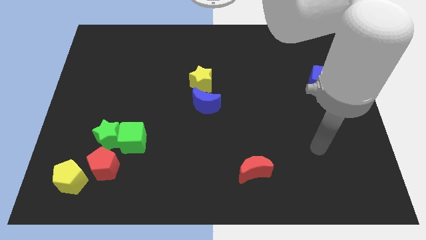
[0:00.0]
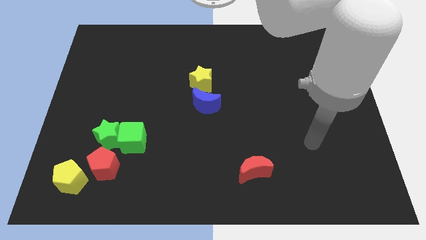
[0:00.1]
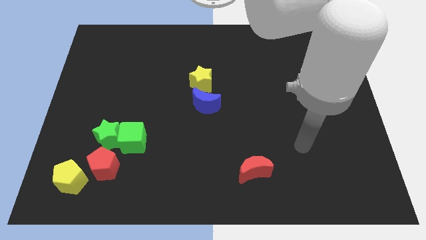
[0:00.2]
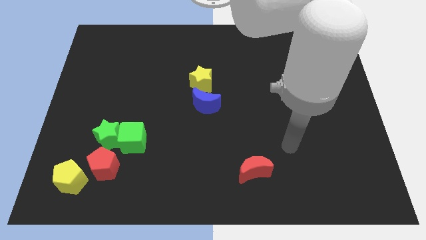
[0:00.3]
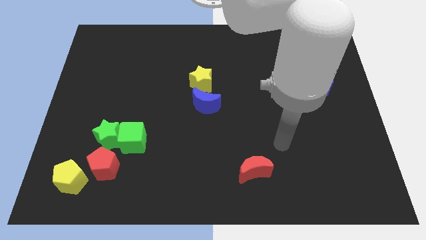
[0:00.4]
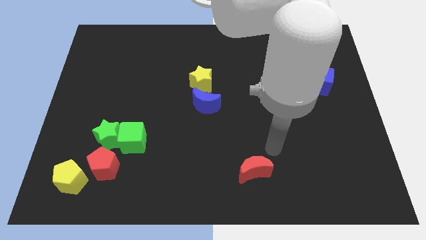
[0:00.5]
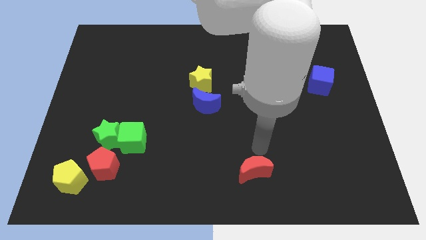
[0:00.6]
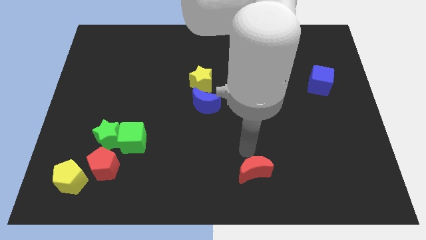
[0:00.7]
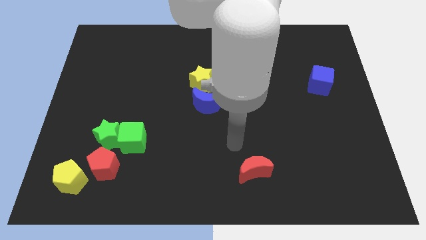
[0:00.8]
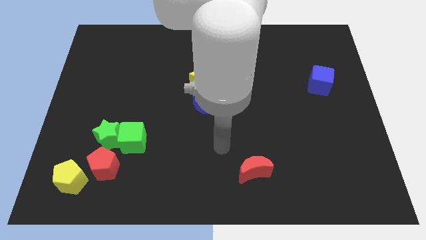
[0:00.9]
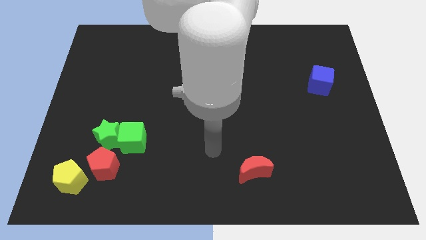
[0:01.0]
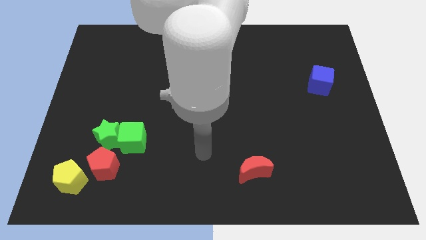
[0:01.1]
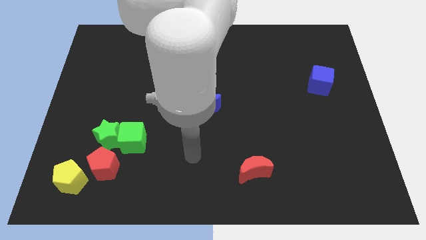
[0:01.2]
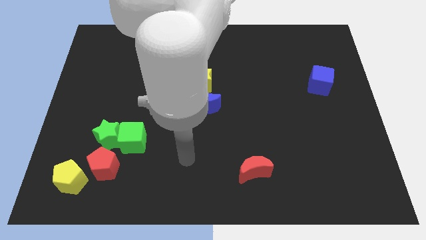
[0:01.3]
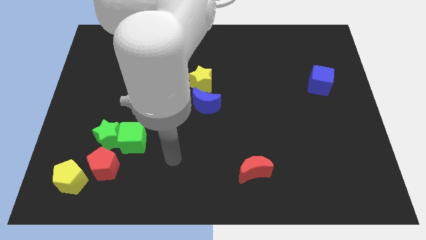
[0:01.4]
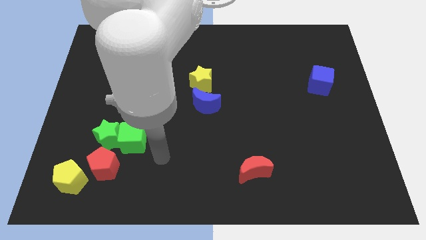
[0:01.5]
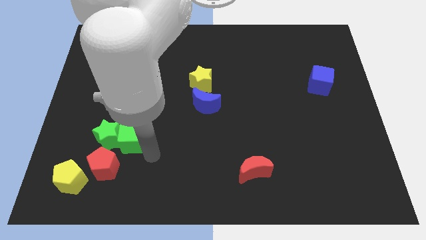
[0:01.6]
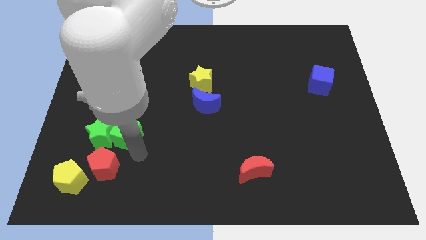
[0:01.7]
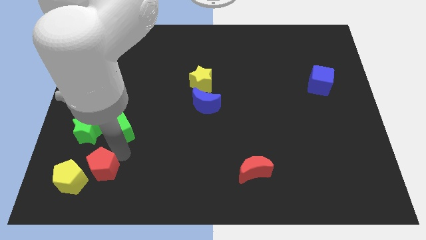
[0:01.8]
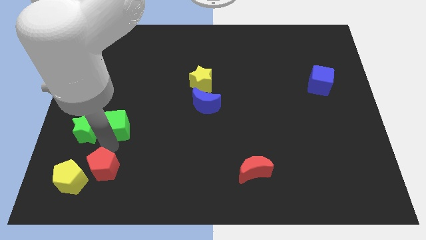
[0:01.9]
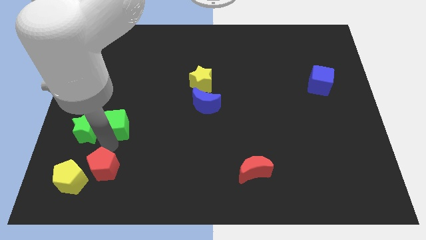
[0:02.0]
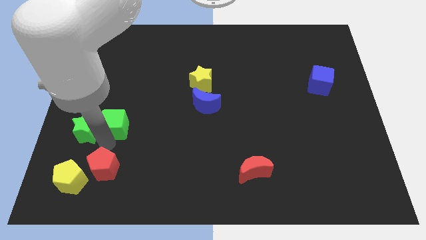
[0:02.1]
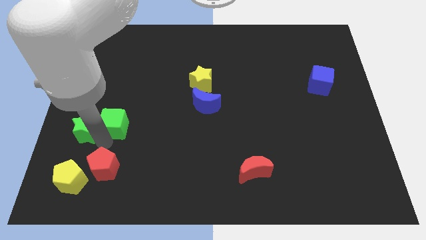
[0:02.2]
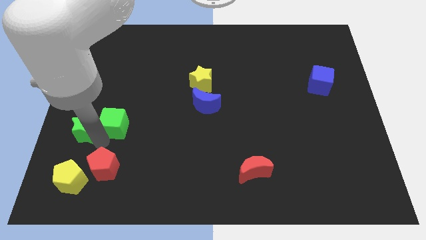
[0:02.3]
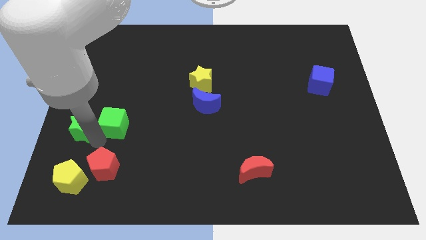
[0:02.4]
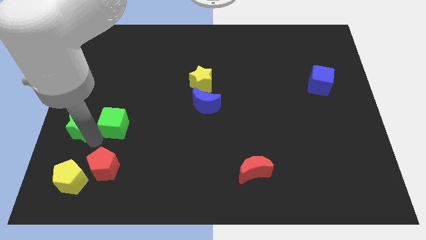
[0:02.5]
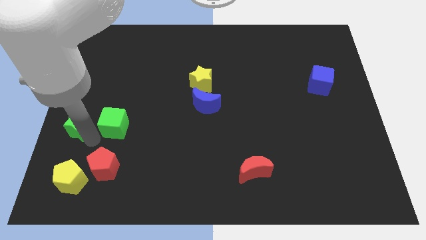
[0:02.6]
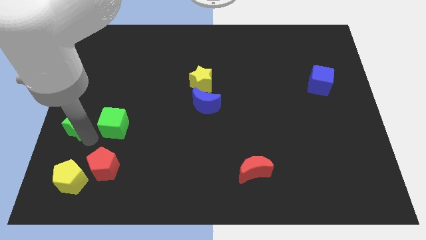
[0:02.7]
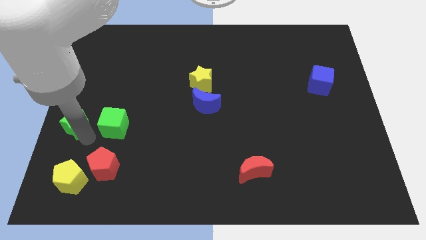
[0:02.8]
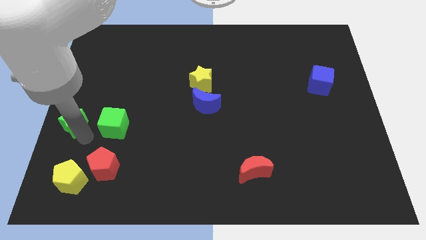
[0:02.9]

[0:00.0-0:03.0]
pull the green star apart from the green cube and red pentagon

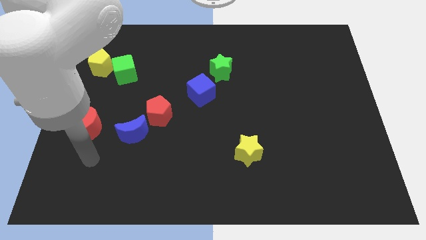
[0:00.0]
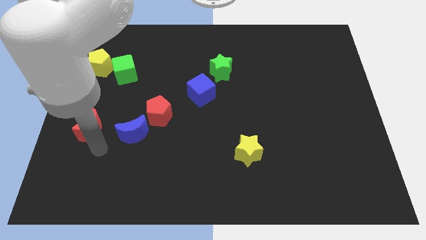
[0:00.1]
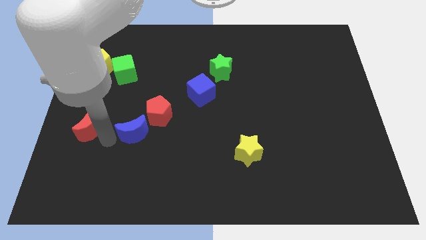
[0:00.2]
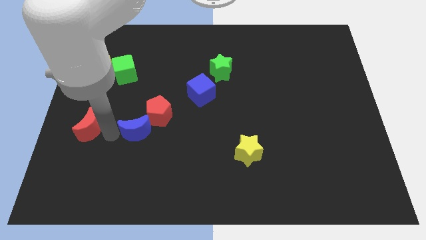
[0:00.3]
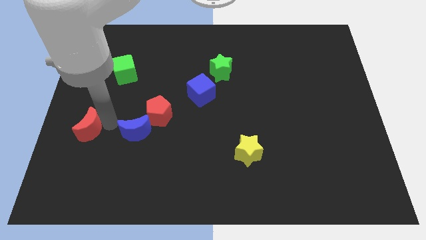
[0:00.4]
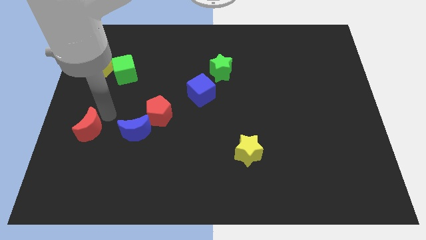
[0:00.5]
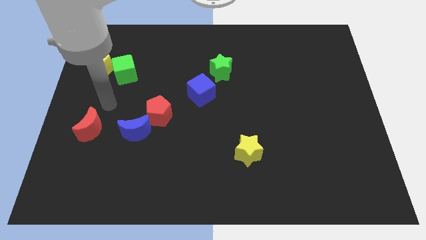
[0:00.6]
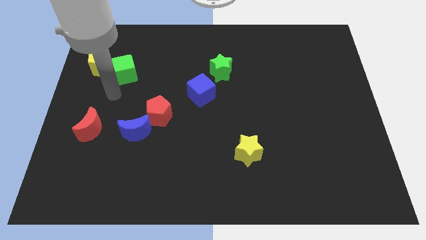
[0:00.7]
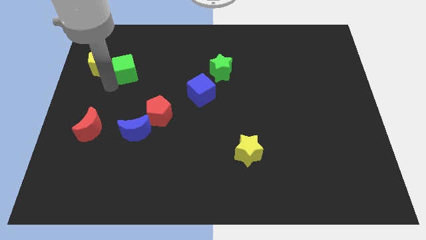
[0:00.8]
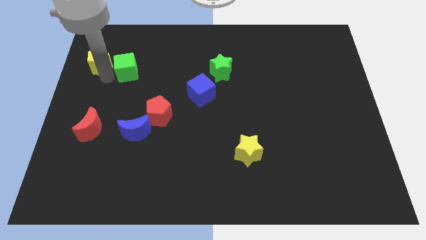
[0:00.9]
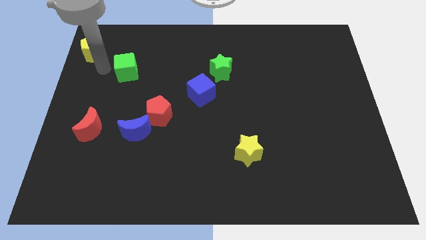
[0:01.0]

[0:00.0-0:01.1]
separate the green cube from the yellow pentagon

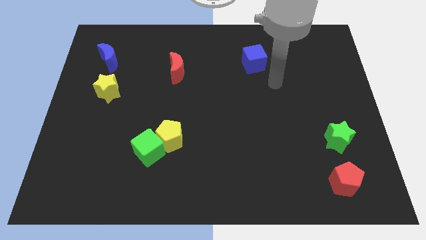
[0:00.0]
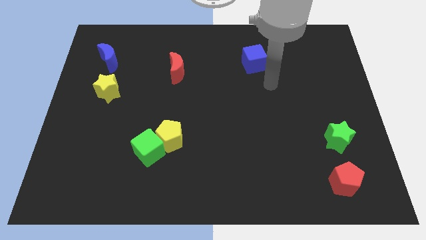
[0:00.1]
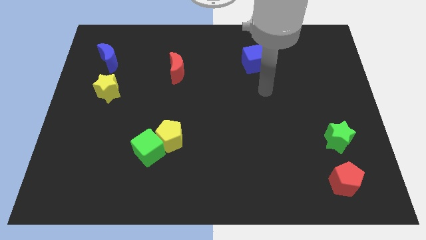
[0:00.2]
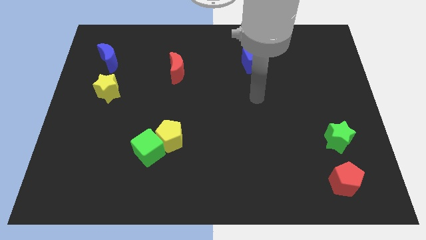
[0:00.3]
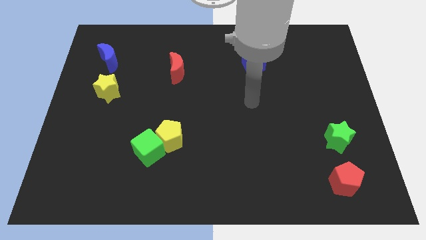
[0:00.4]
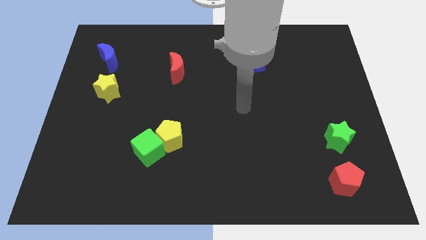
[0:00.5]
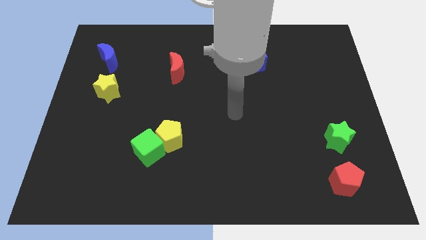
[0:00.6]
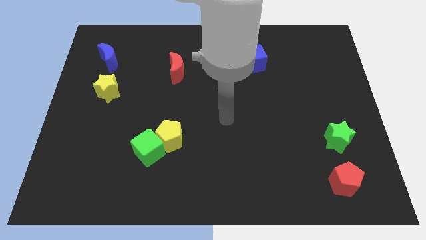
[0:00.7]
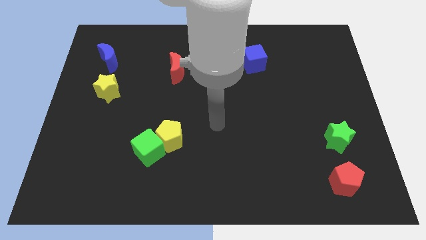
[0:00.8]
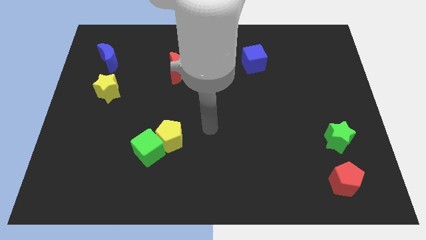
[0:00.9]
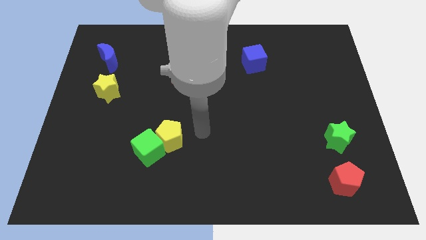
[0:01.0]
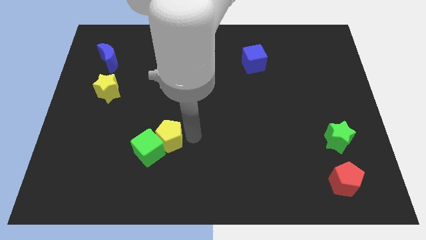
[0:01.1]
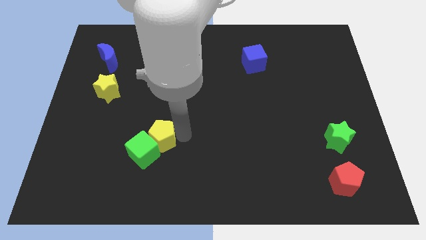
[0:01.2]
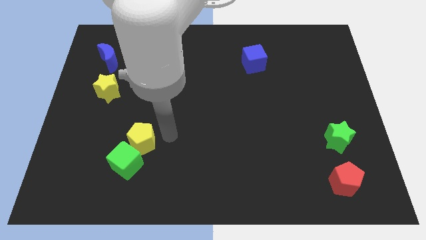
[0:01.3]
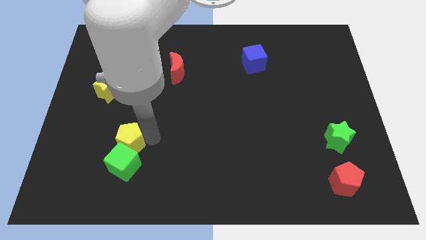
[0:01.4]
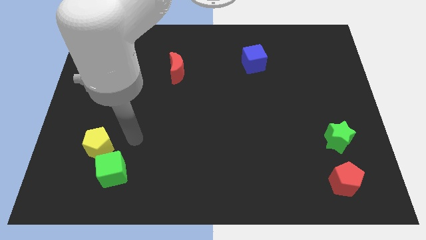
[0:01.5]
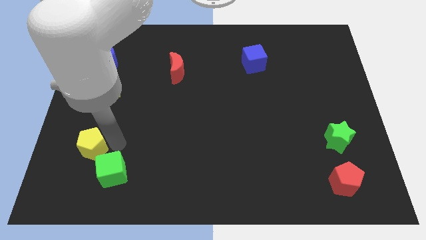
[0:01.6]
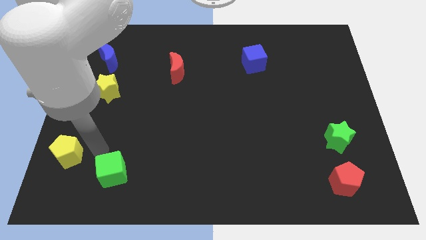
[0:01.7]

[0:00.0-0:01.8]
pull the green cube apart from the yellow pentagon

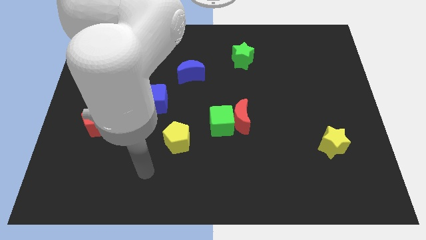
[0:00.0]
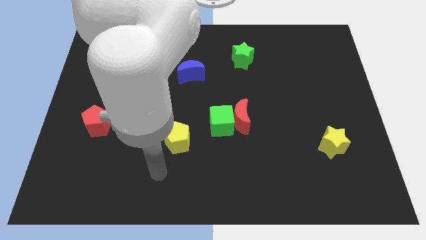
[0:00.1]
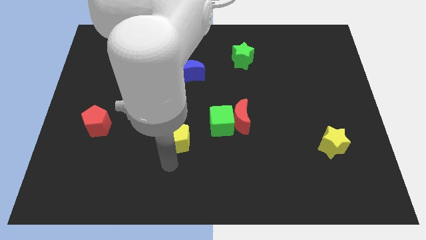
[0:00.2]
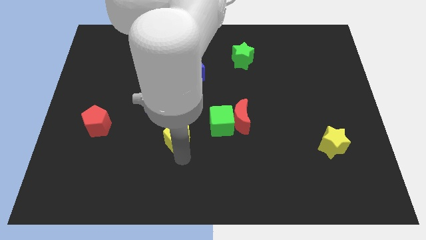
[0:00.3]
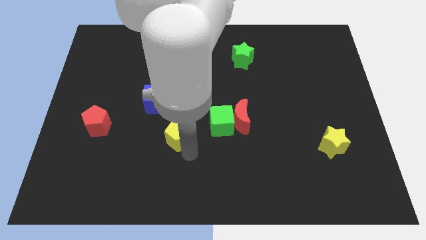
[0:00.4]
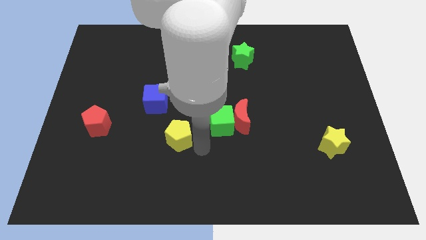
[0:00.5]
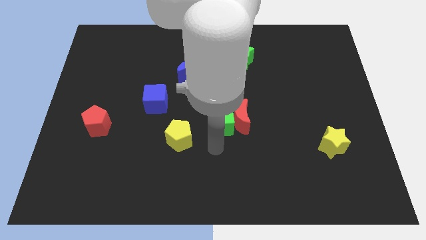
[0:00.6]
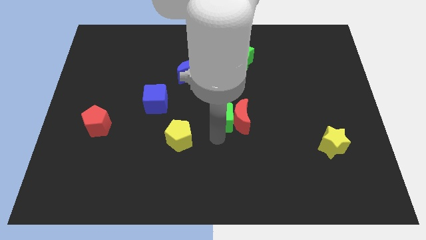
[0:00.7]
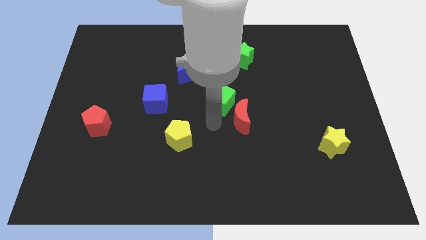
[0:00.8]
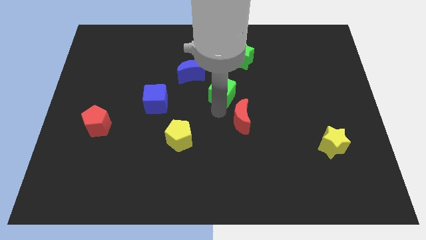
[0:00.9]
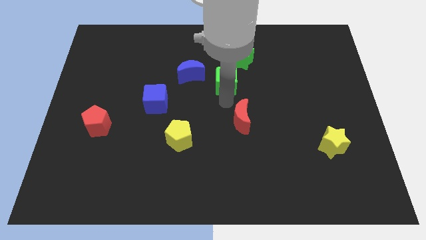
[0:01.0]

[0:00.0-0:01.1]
pull the red moon apart from the green cube

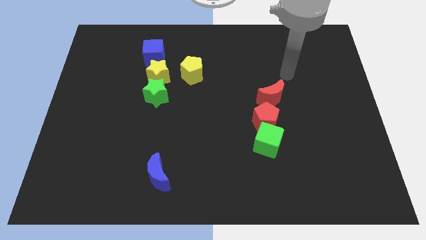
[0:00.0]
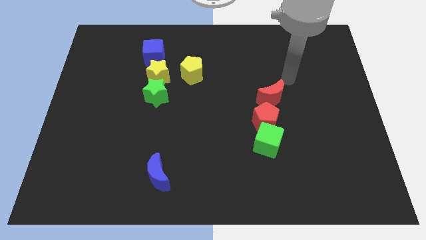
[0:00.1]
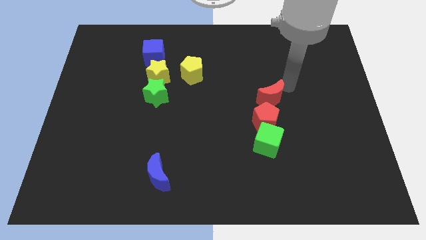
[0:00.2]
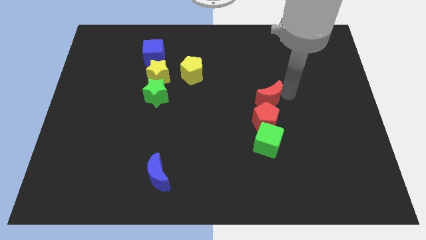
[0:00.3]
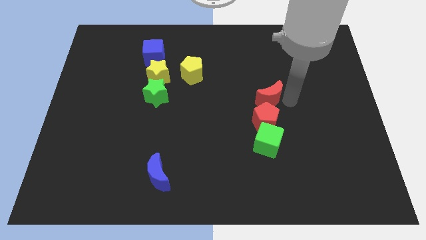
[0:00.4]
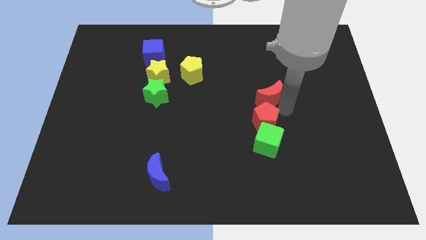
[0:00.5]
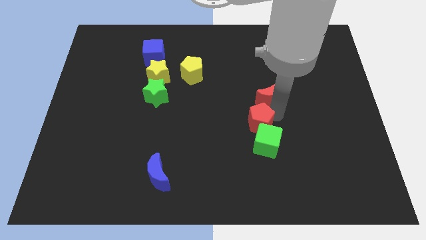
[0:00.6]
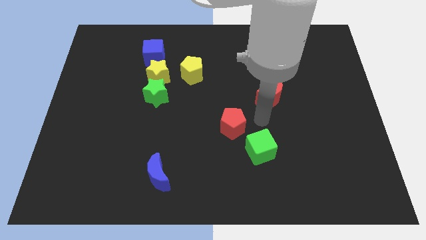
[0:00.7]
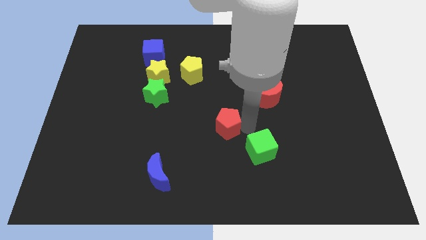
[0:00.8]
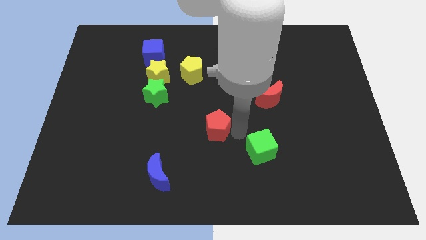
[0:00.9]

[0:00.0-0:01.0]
pull the green cube apart from the red pentagon

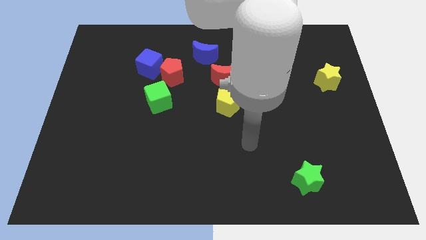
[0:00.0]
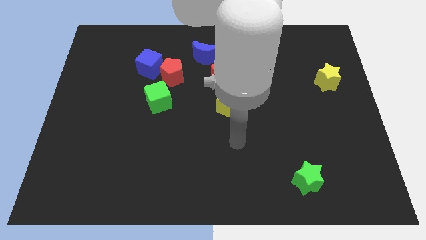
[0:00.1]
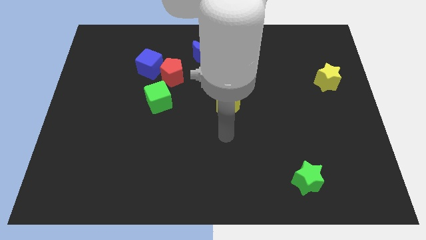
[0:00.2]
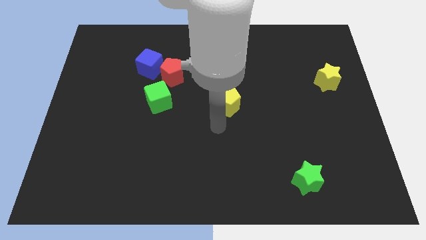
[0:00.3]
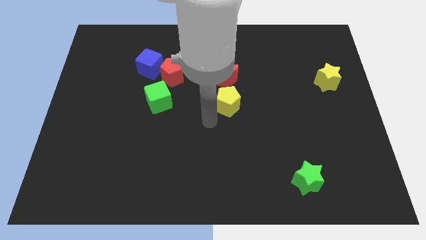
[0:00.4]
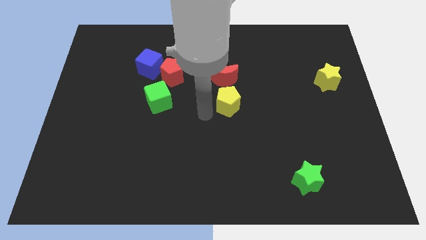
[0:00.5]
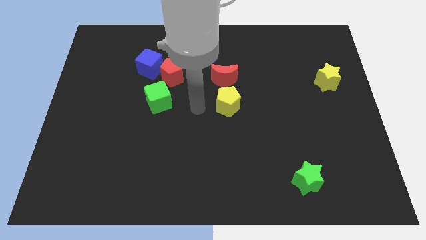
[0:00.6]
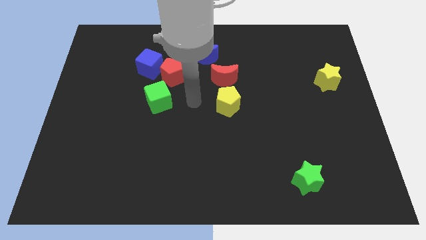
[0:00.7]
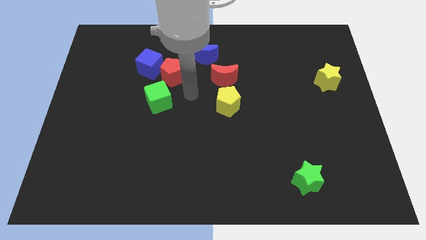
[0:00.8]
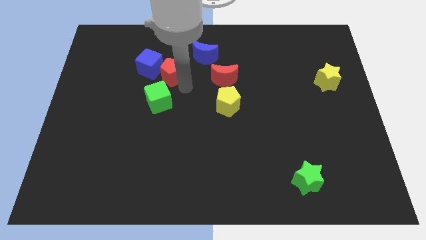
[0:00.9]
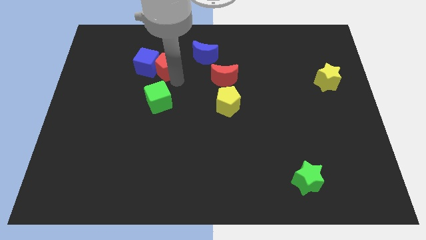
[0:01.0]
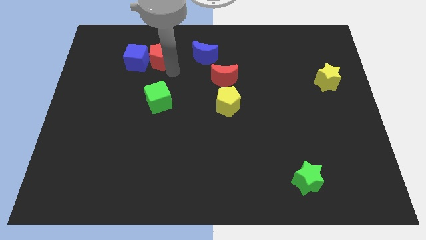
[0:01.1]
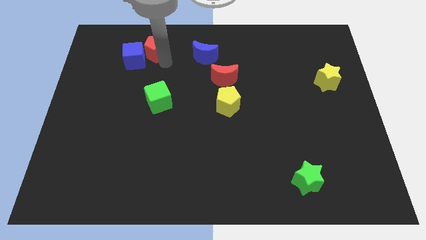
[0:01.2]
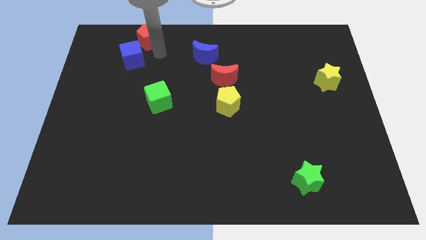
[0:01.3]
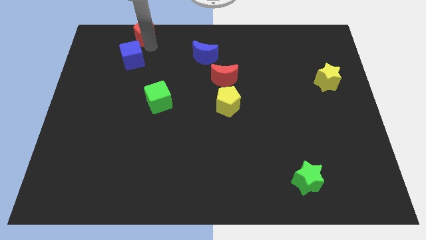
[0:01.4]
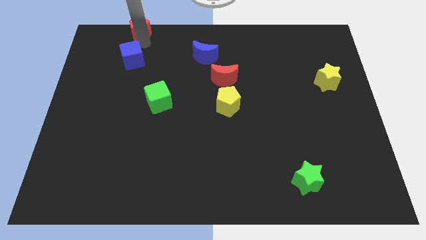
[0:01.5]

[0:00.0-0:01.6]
pull the blue cube apart from the red pentagon
